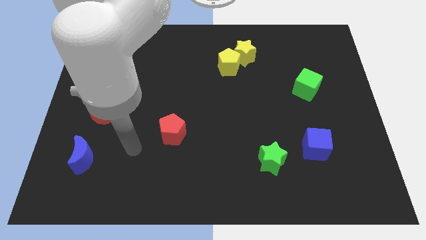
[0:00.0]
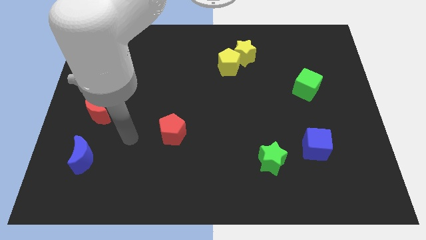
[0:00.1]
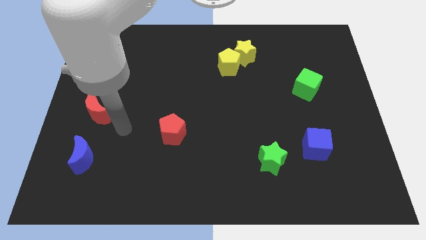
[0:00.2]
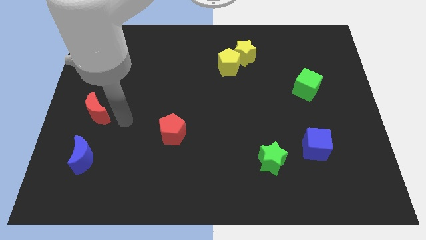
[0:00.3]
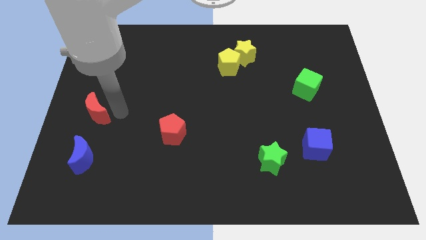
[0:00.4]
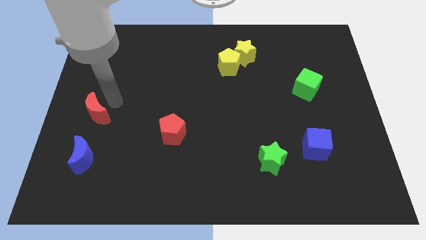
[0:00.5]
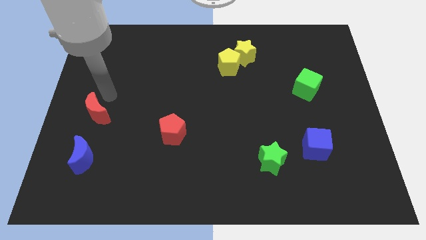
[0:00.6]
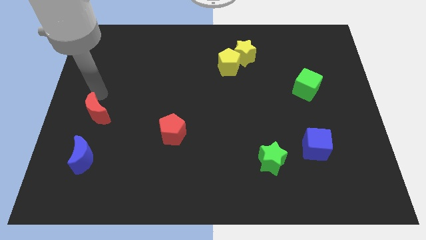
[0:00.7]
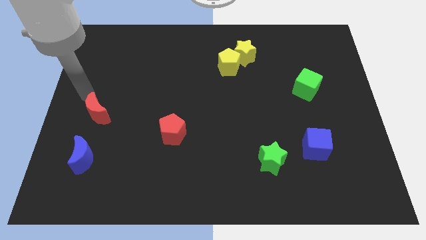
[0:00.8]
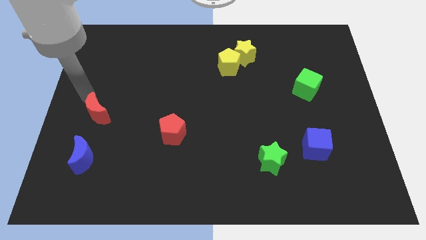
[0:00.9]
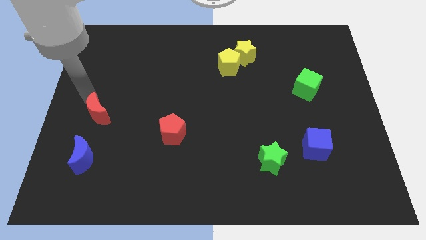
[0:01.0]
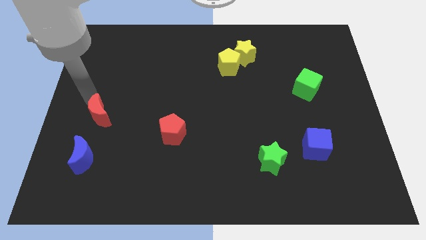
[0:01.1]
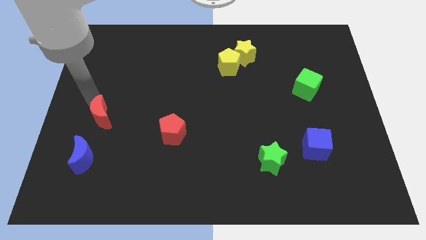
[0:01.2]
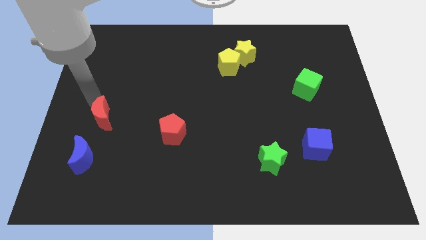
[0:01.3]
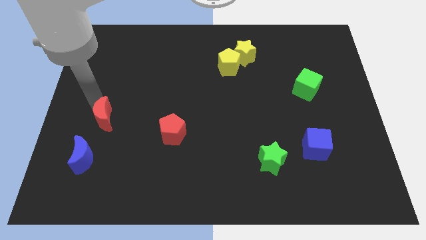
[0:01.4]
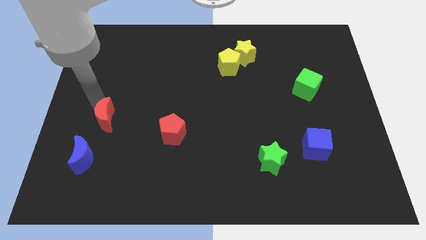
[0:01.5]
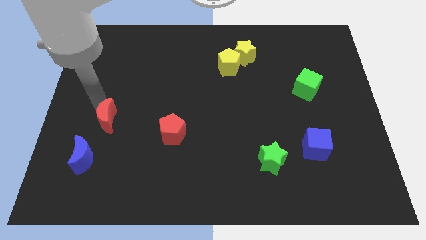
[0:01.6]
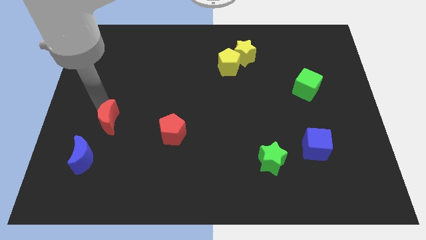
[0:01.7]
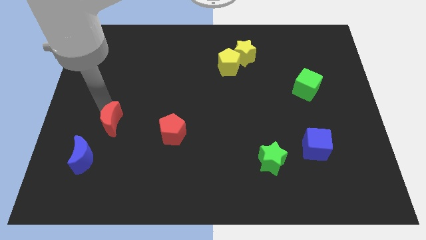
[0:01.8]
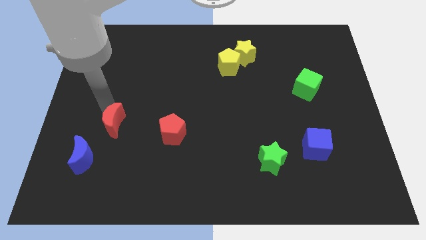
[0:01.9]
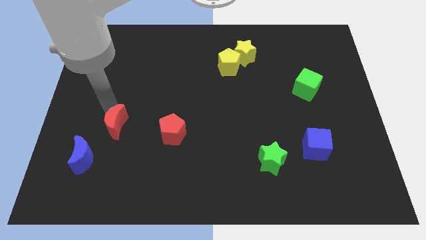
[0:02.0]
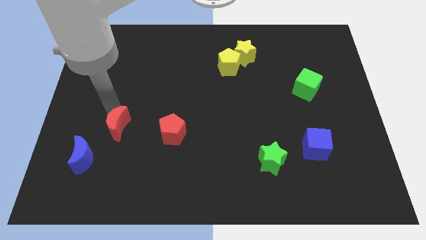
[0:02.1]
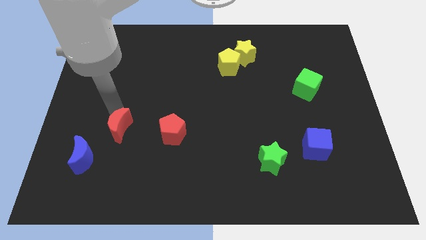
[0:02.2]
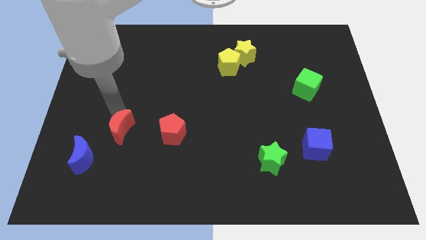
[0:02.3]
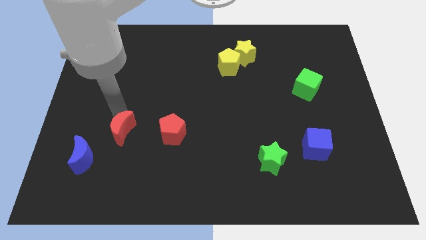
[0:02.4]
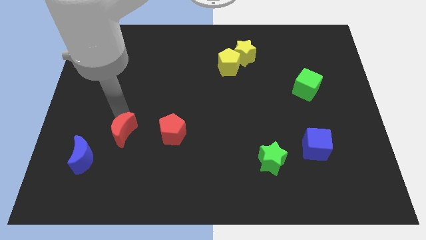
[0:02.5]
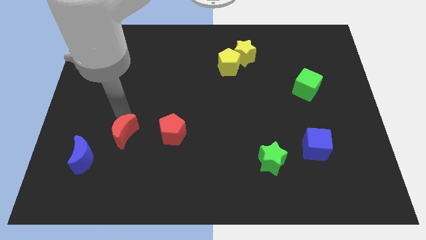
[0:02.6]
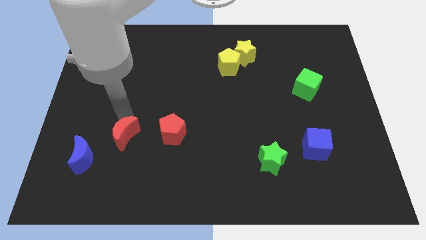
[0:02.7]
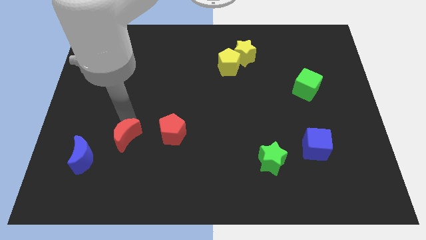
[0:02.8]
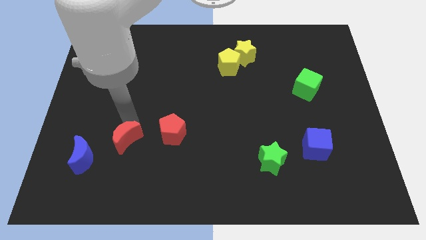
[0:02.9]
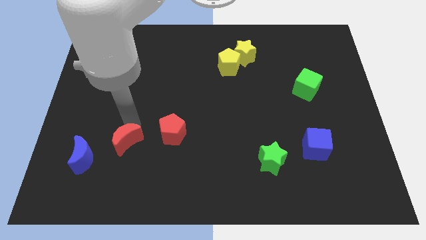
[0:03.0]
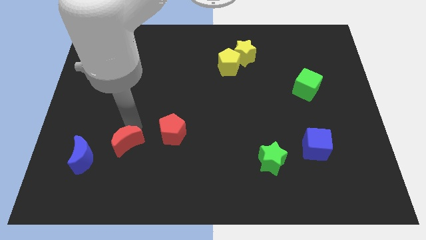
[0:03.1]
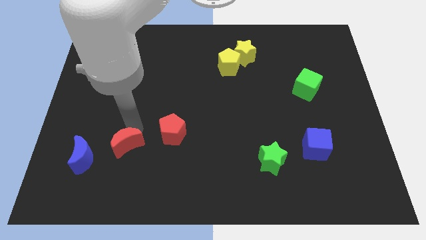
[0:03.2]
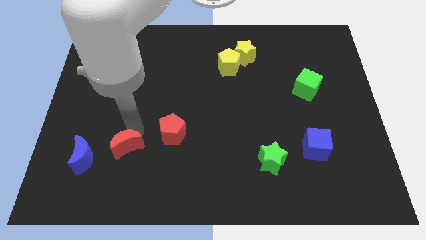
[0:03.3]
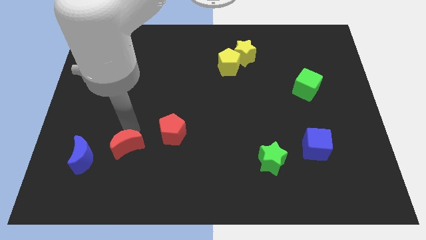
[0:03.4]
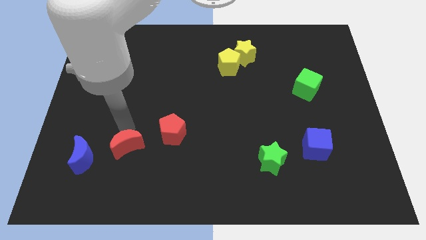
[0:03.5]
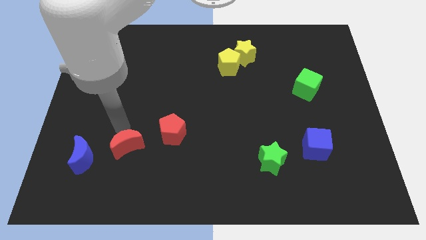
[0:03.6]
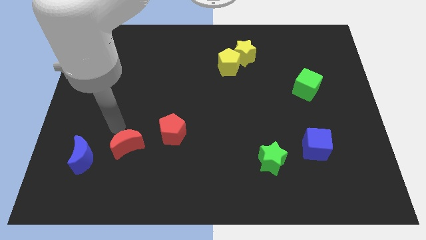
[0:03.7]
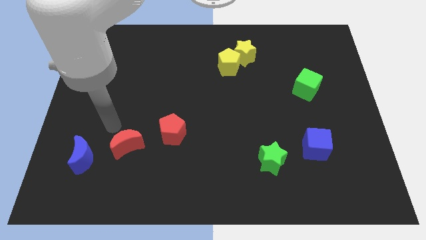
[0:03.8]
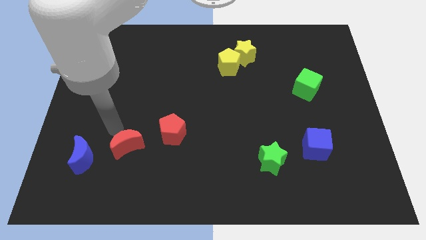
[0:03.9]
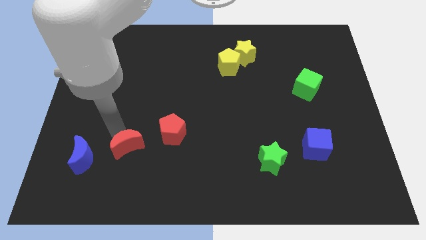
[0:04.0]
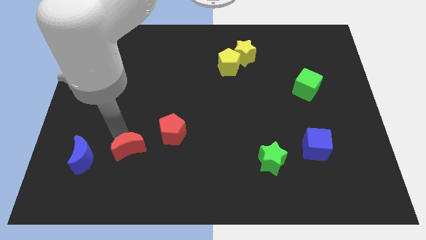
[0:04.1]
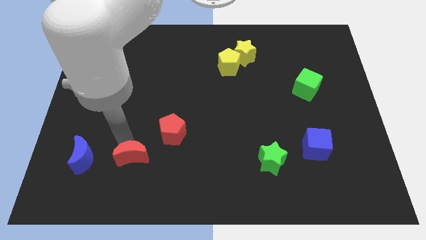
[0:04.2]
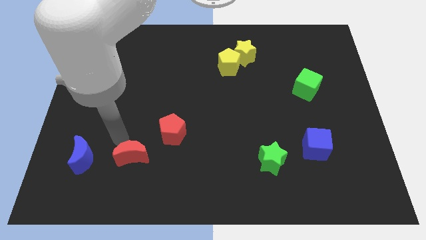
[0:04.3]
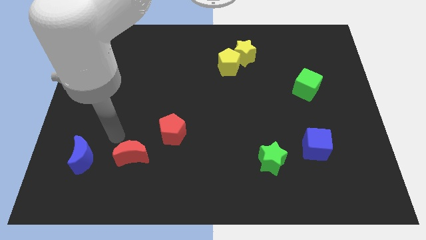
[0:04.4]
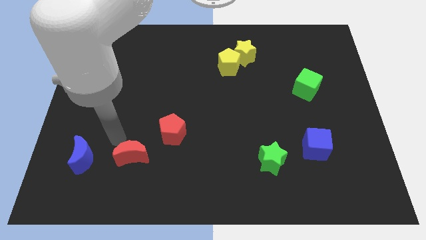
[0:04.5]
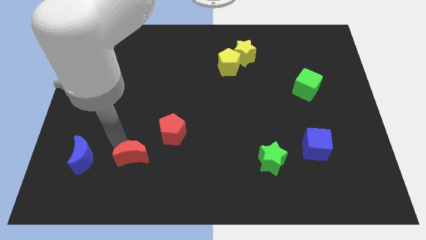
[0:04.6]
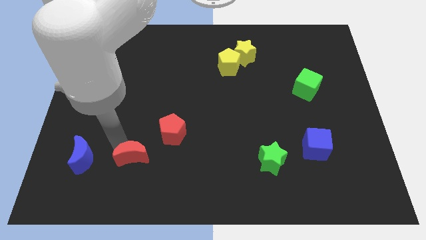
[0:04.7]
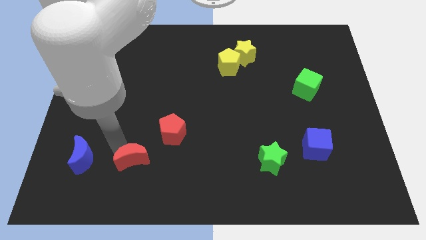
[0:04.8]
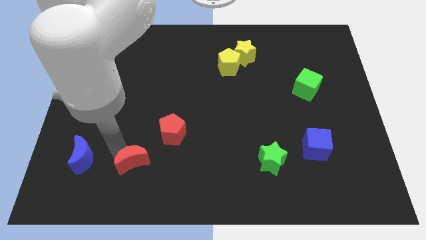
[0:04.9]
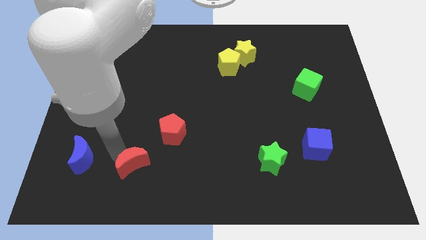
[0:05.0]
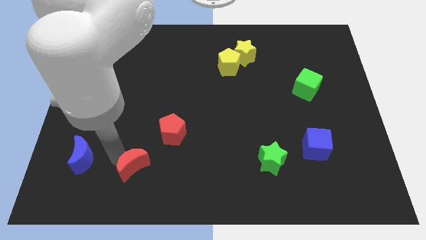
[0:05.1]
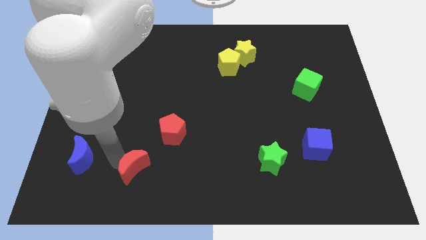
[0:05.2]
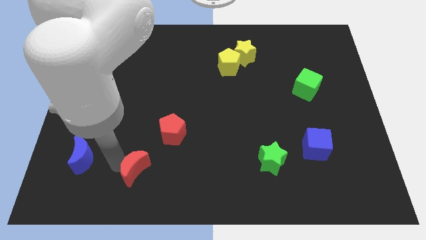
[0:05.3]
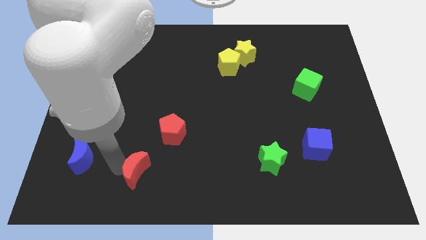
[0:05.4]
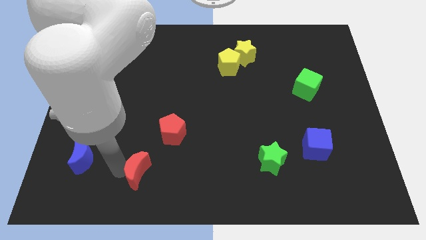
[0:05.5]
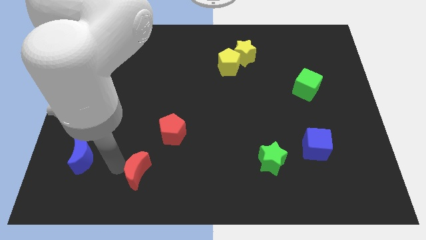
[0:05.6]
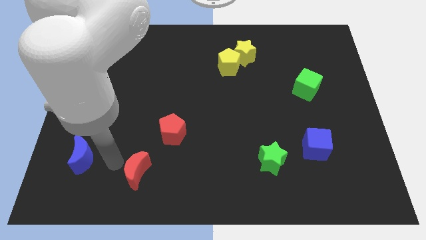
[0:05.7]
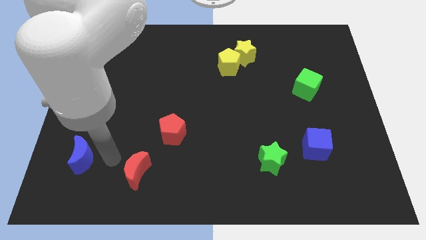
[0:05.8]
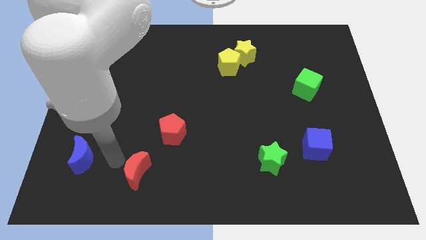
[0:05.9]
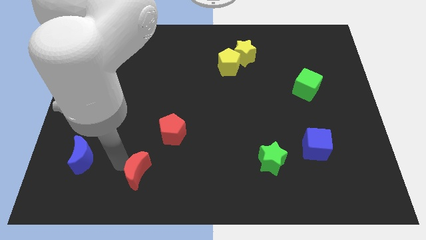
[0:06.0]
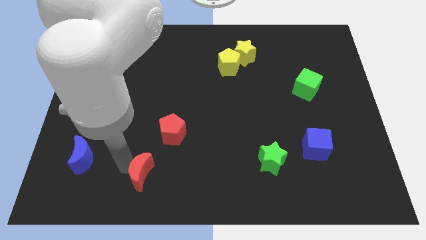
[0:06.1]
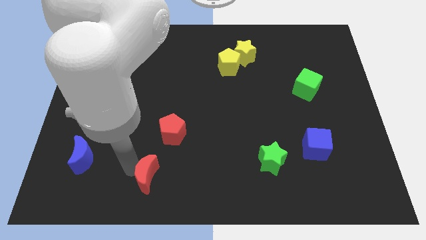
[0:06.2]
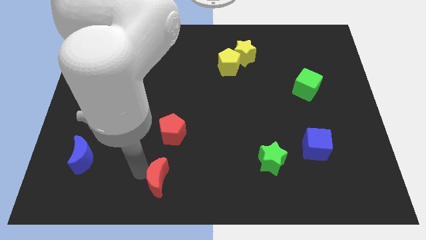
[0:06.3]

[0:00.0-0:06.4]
slide the red moon to the bottom side

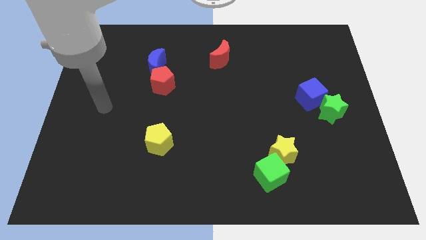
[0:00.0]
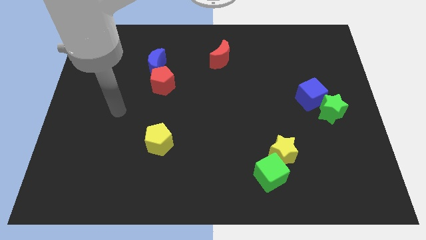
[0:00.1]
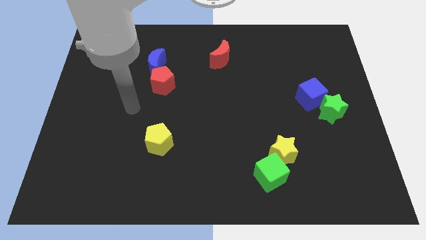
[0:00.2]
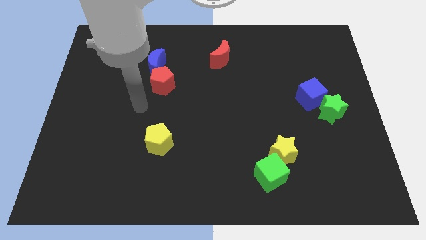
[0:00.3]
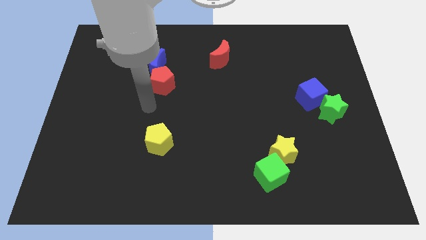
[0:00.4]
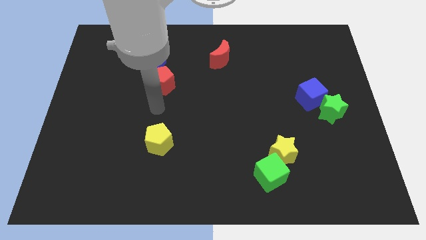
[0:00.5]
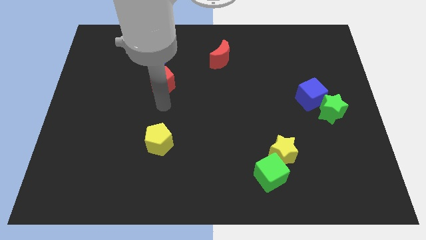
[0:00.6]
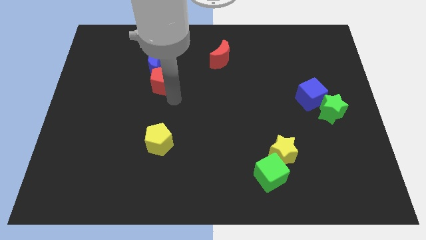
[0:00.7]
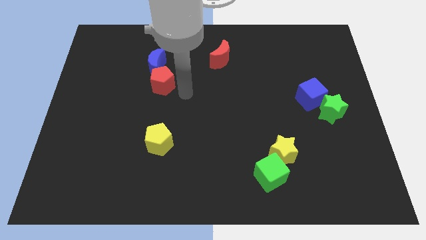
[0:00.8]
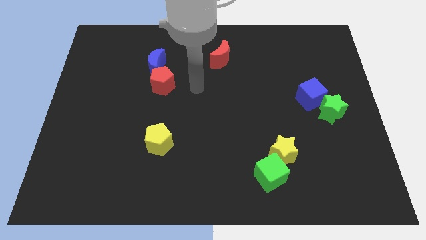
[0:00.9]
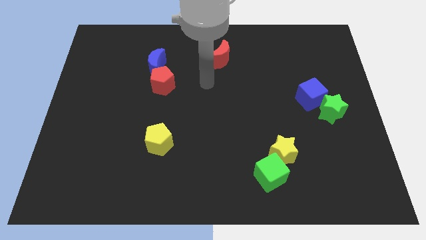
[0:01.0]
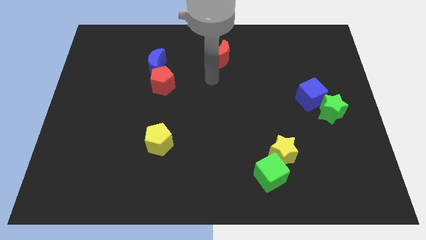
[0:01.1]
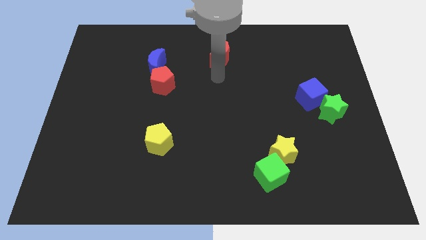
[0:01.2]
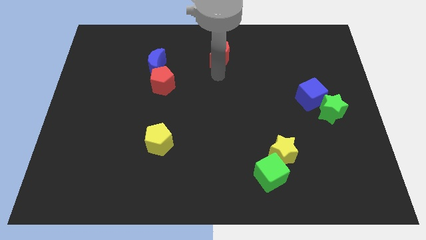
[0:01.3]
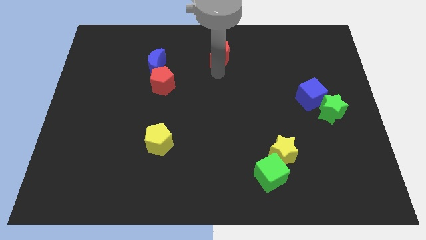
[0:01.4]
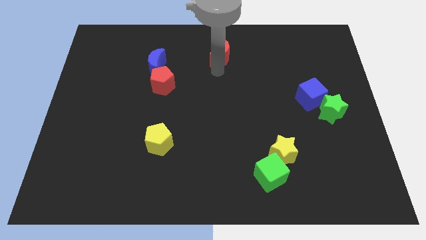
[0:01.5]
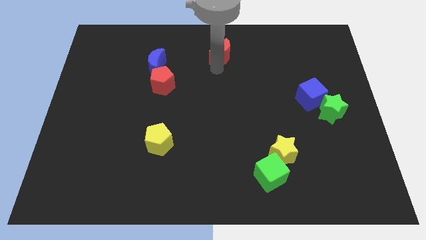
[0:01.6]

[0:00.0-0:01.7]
put the red moon to the towards your base
